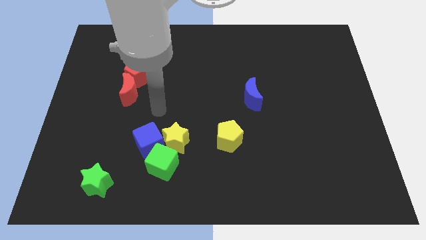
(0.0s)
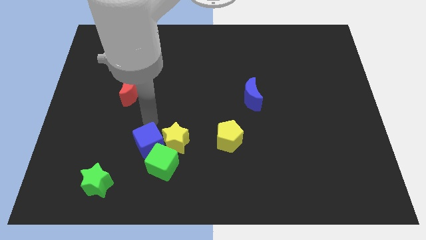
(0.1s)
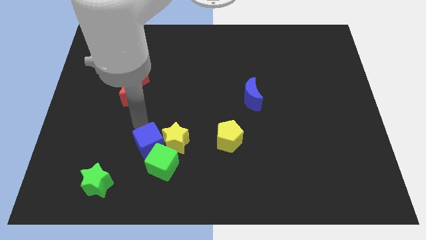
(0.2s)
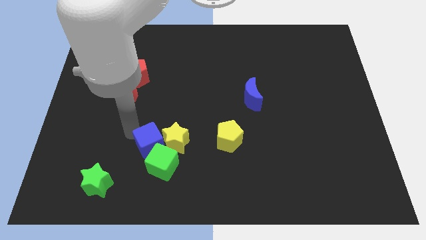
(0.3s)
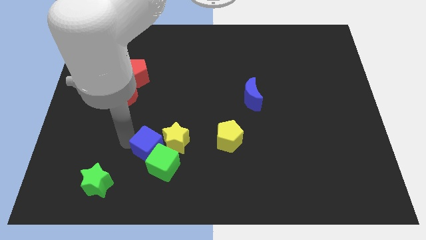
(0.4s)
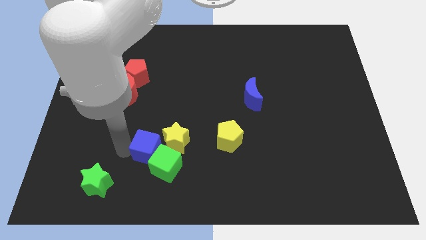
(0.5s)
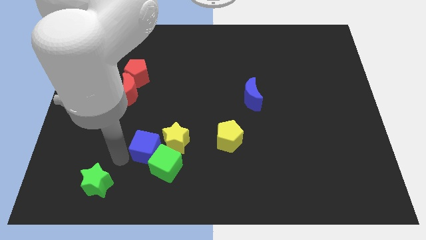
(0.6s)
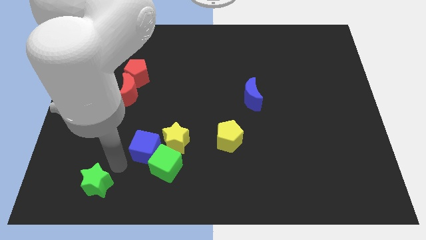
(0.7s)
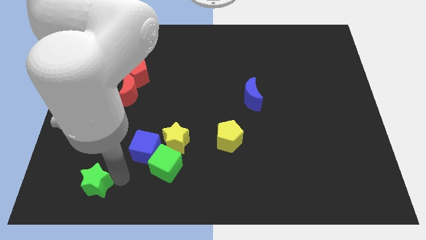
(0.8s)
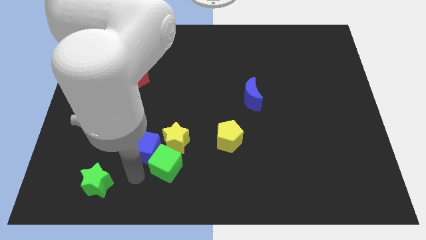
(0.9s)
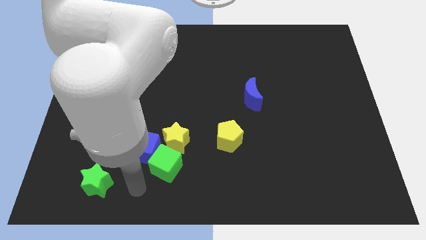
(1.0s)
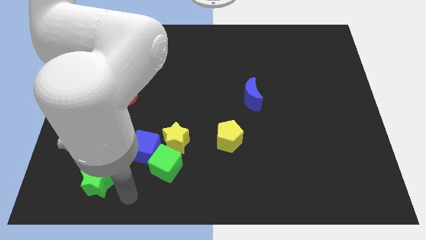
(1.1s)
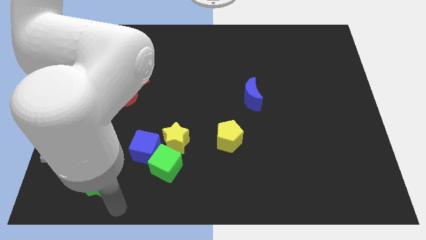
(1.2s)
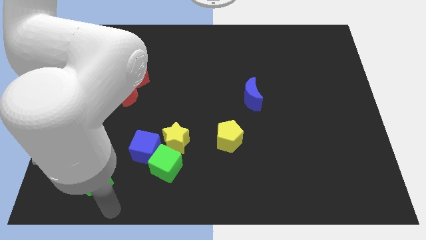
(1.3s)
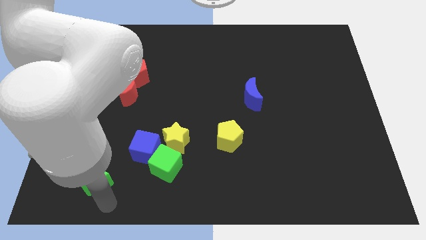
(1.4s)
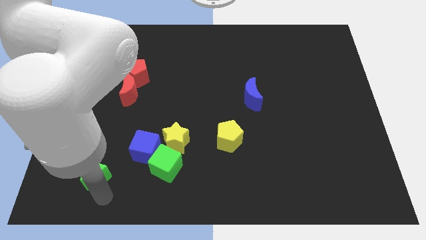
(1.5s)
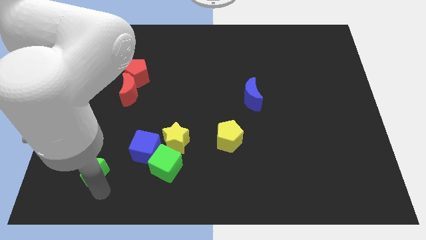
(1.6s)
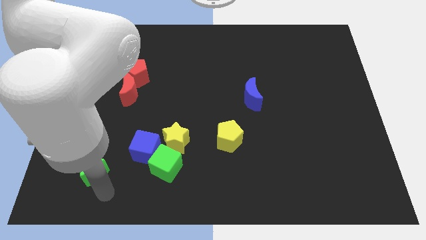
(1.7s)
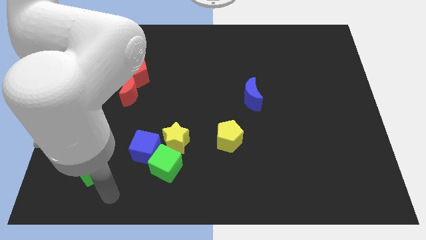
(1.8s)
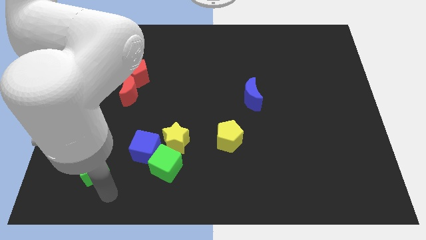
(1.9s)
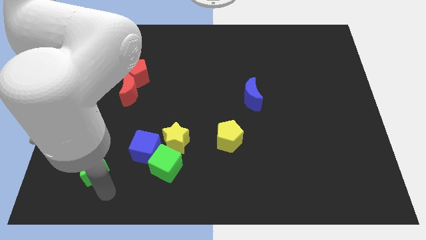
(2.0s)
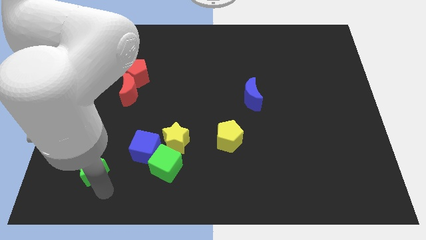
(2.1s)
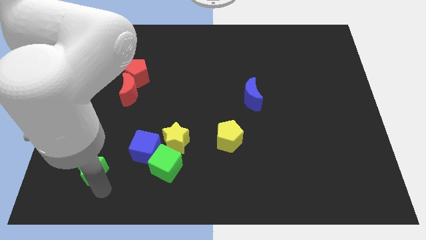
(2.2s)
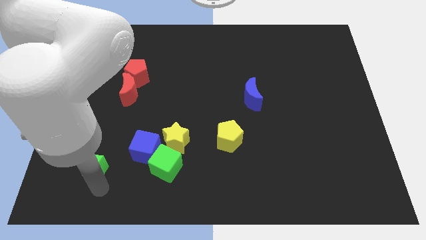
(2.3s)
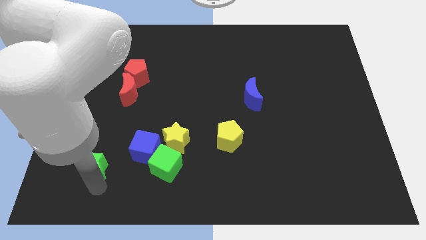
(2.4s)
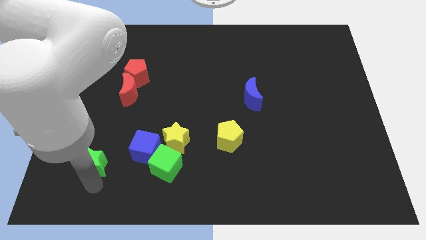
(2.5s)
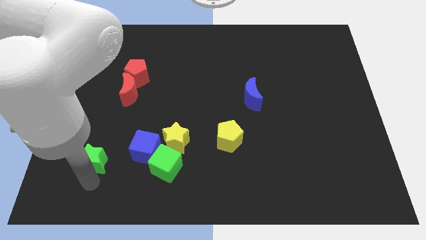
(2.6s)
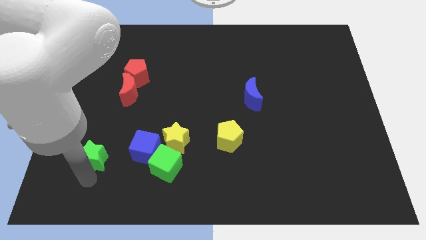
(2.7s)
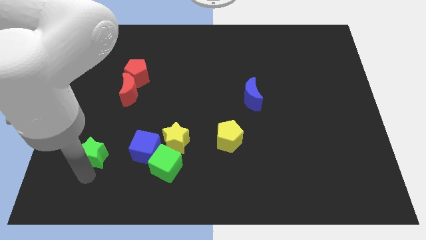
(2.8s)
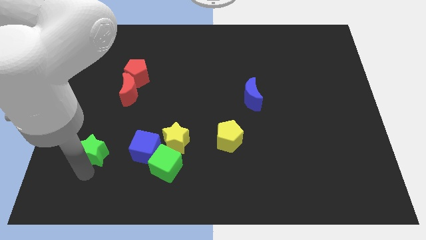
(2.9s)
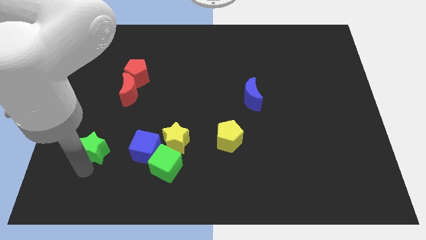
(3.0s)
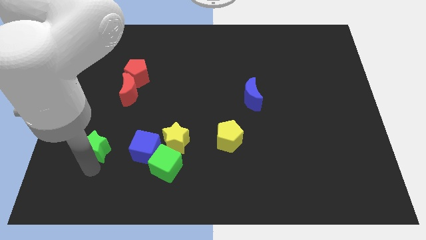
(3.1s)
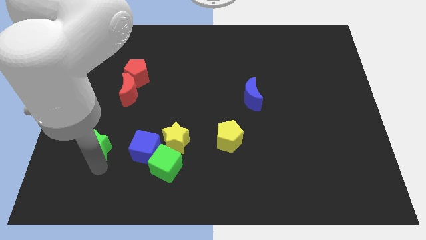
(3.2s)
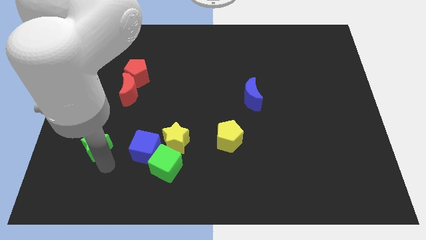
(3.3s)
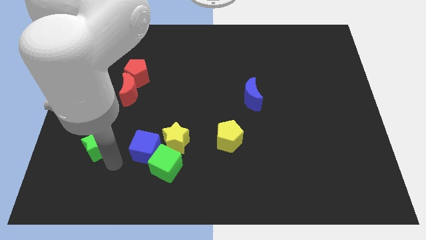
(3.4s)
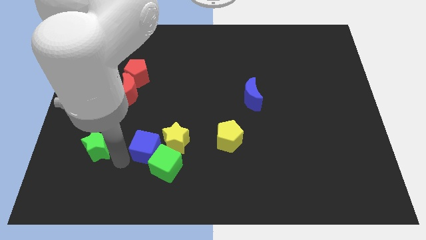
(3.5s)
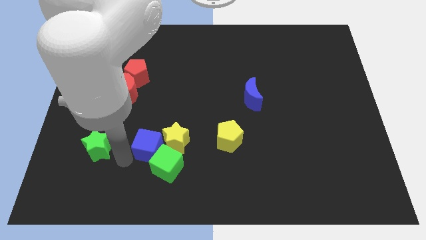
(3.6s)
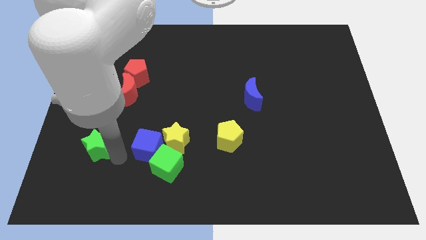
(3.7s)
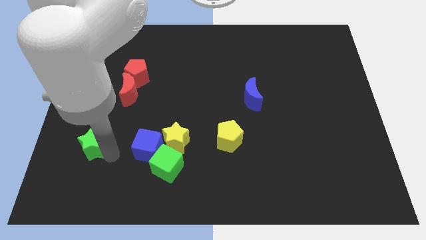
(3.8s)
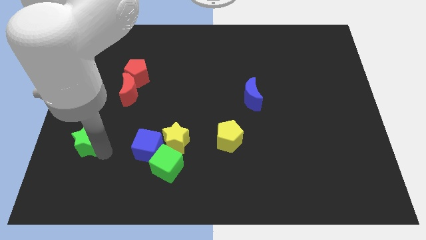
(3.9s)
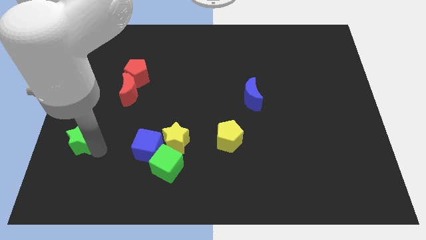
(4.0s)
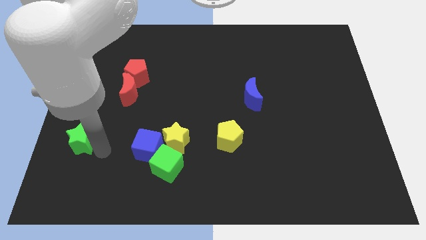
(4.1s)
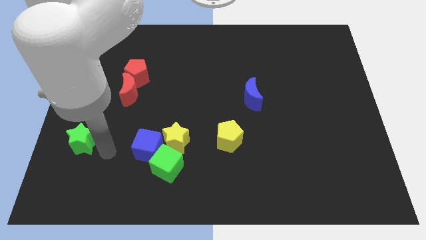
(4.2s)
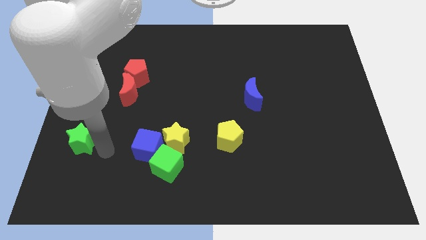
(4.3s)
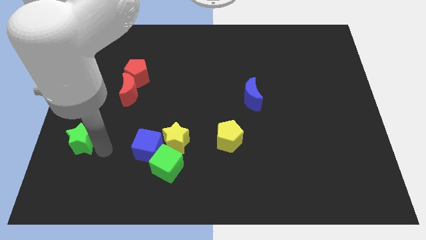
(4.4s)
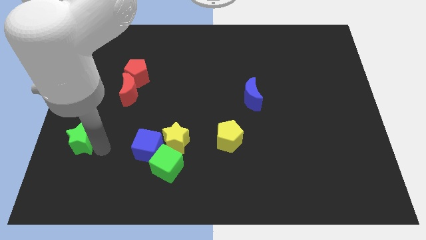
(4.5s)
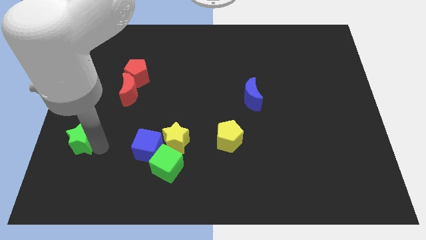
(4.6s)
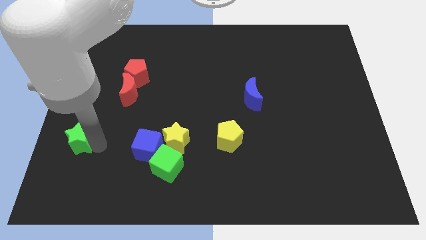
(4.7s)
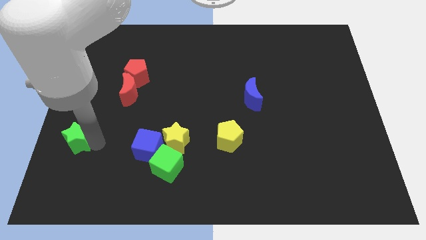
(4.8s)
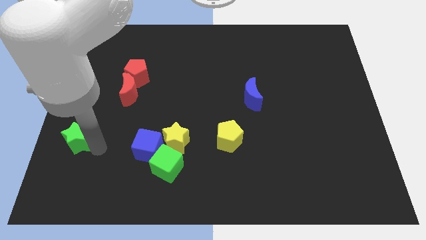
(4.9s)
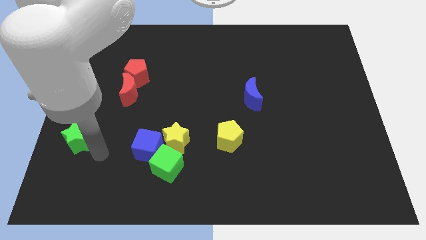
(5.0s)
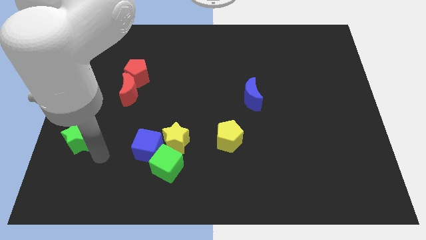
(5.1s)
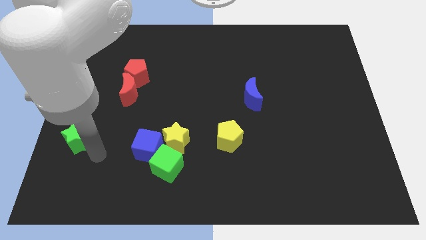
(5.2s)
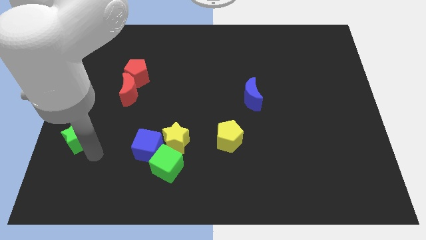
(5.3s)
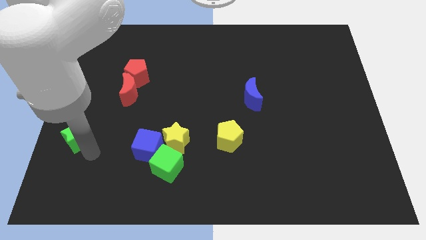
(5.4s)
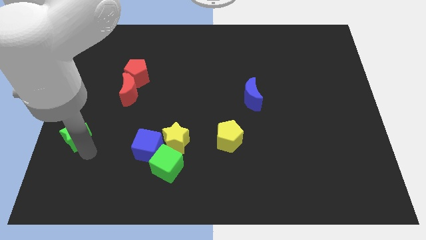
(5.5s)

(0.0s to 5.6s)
slide the green star to the left side

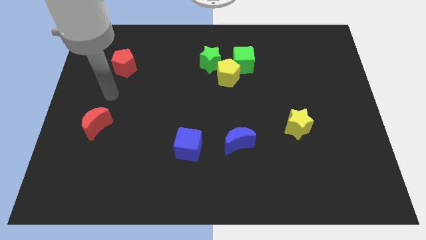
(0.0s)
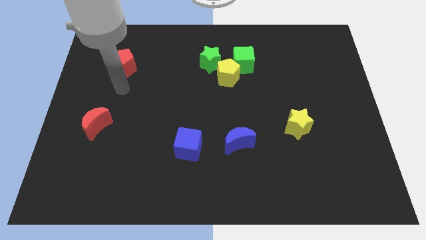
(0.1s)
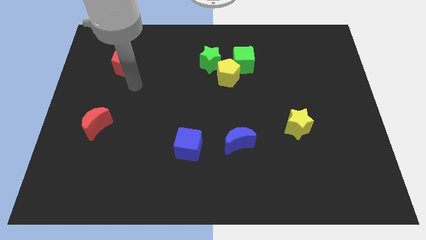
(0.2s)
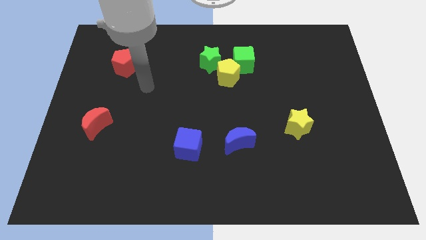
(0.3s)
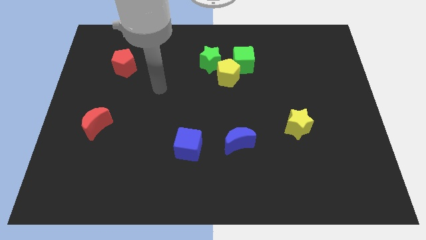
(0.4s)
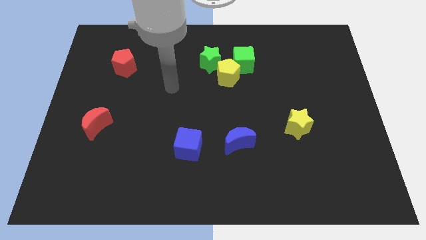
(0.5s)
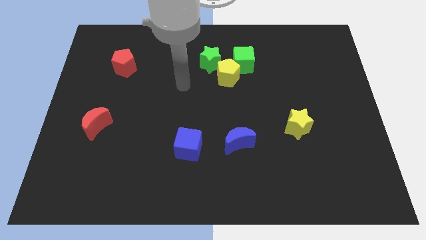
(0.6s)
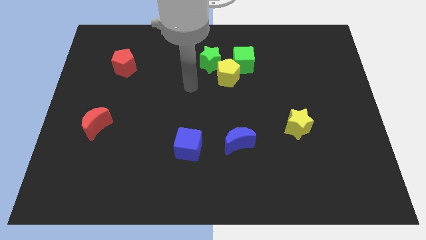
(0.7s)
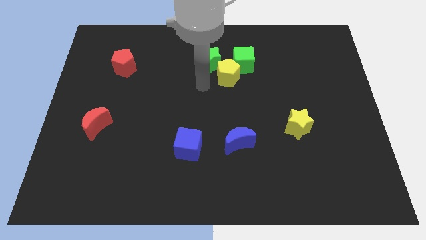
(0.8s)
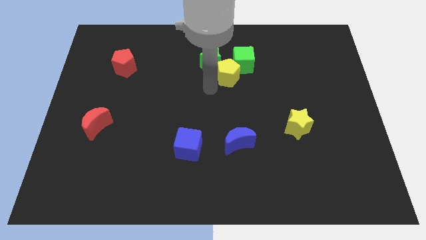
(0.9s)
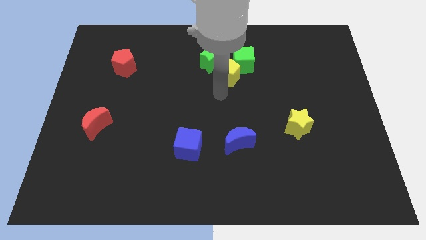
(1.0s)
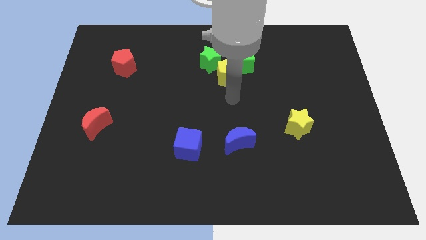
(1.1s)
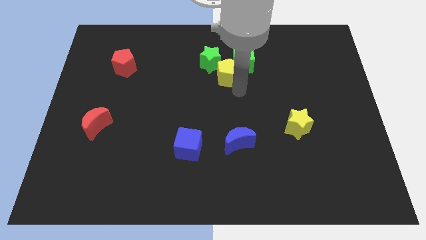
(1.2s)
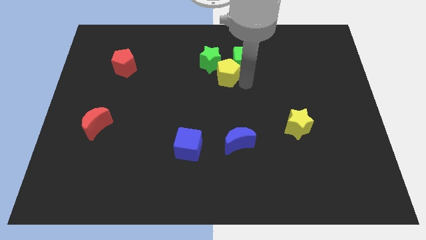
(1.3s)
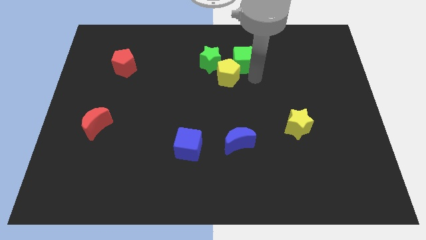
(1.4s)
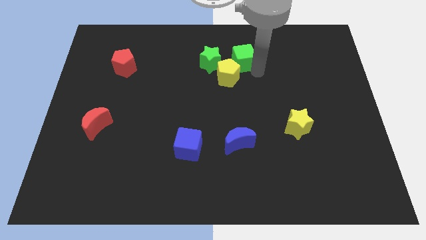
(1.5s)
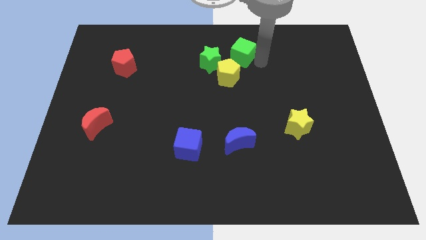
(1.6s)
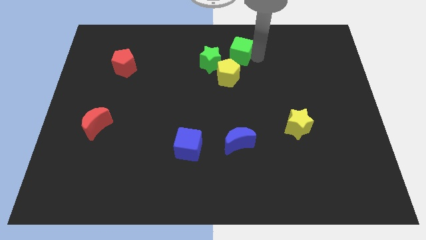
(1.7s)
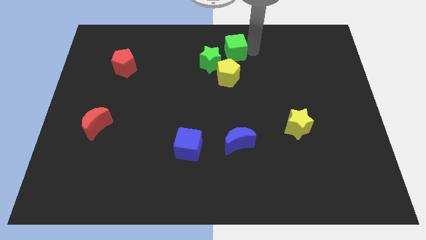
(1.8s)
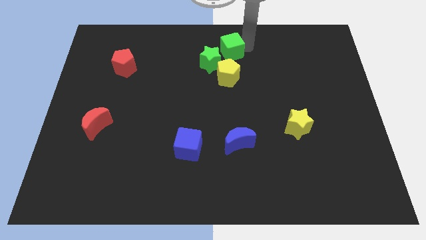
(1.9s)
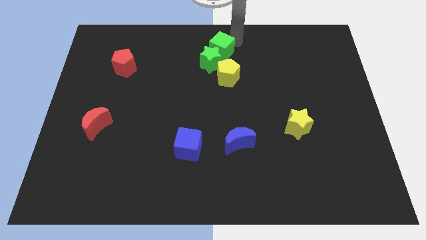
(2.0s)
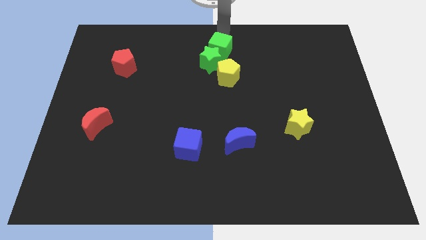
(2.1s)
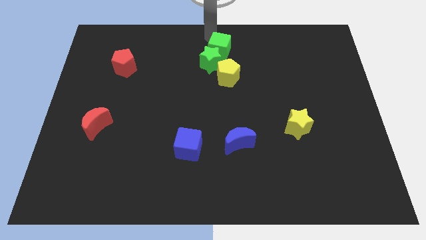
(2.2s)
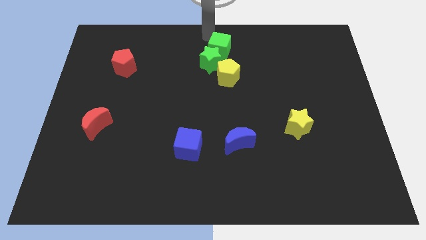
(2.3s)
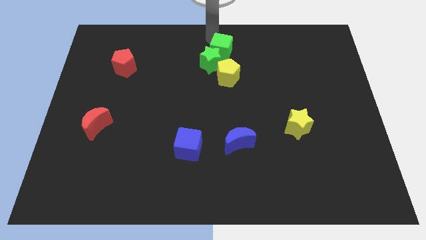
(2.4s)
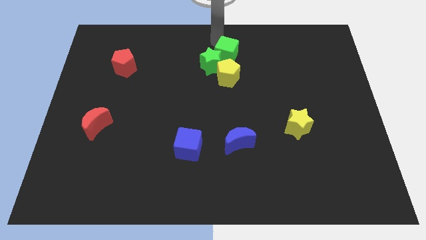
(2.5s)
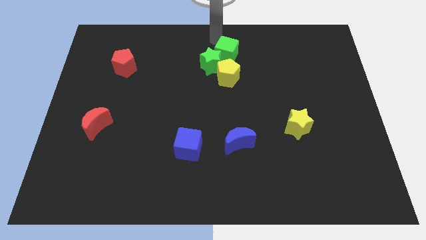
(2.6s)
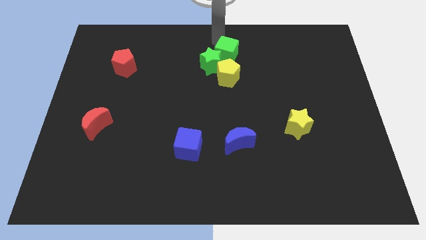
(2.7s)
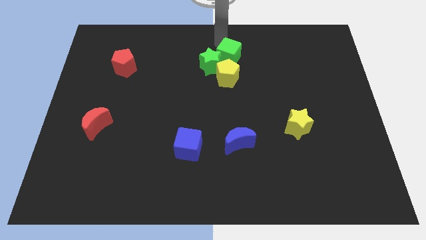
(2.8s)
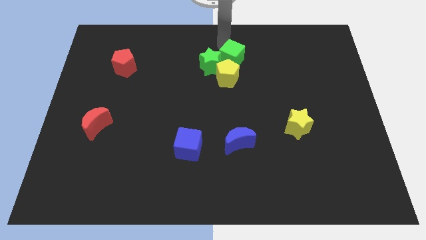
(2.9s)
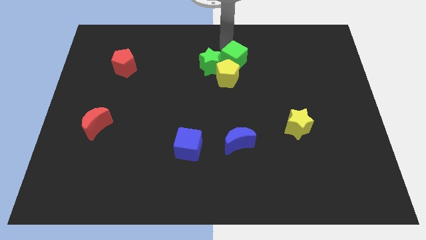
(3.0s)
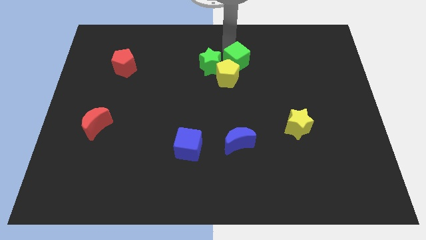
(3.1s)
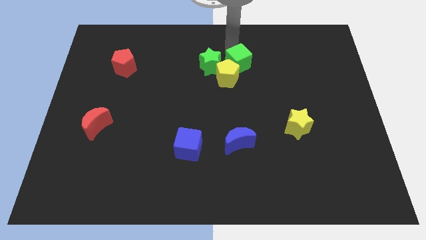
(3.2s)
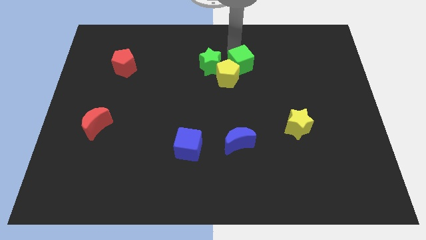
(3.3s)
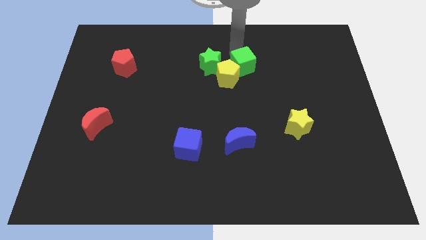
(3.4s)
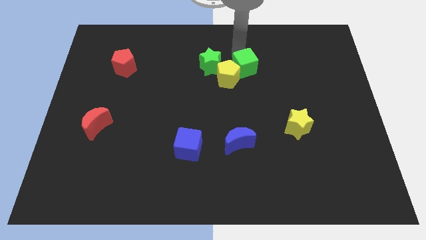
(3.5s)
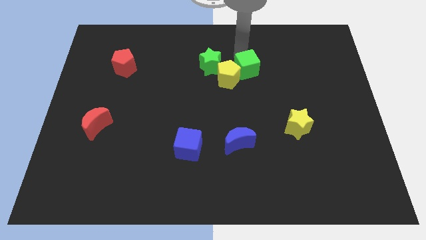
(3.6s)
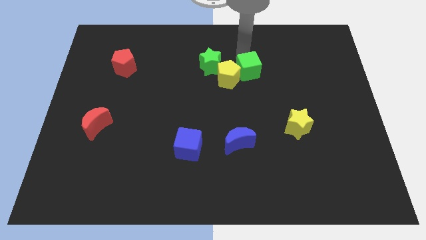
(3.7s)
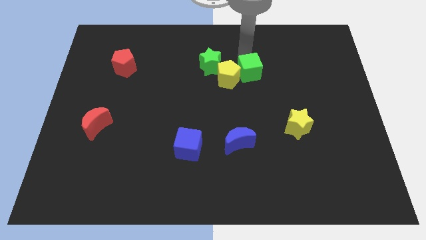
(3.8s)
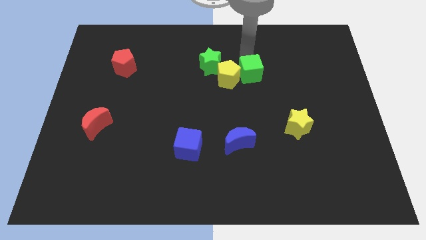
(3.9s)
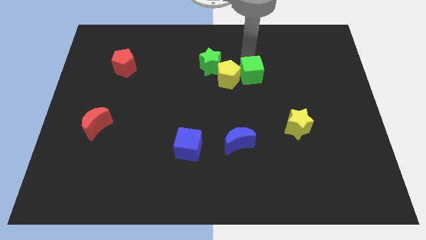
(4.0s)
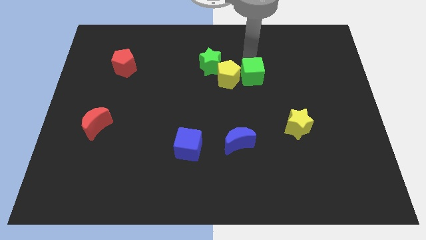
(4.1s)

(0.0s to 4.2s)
slide the green cube to the middle
